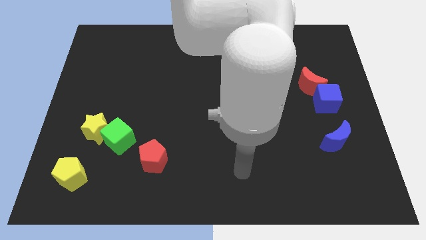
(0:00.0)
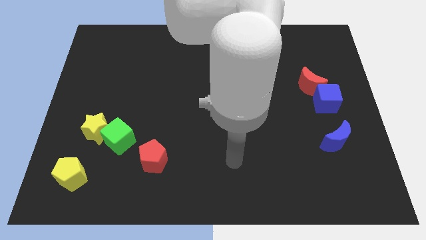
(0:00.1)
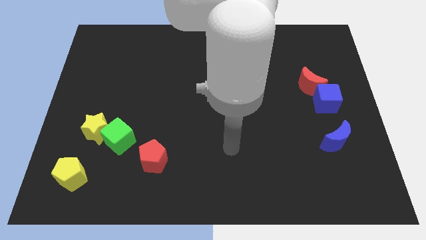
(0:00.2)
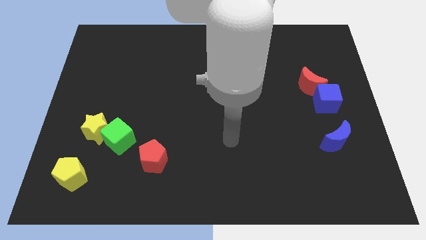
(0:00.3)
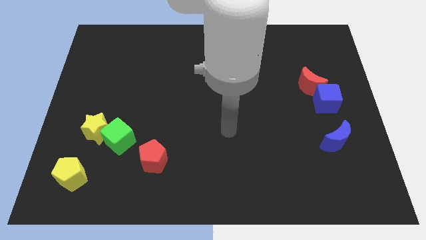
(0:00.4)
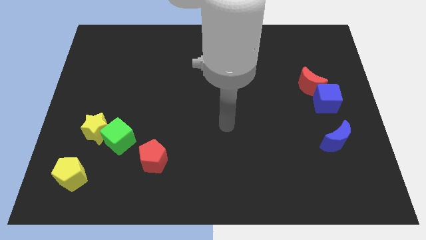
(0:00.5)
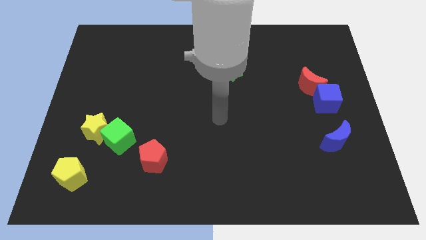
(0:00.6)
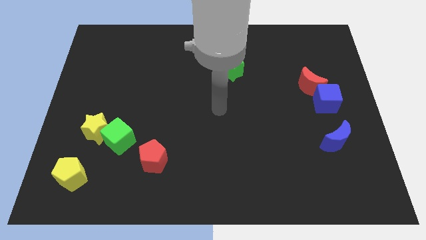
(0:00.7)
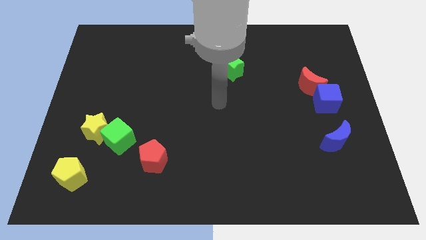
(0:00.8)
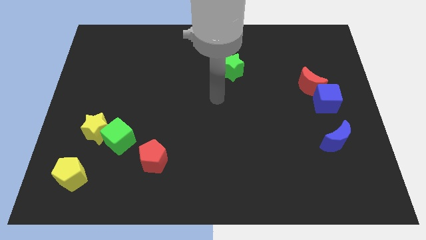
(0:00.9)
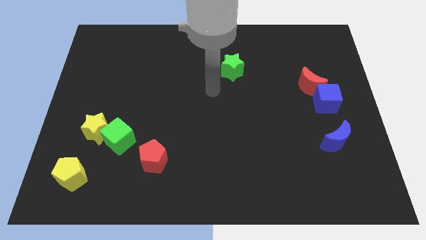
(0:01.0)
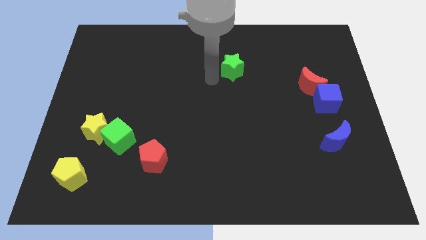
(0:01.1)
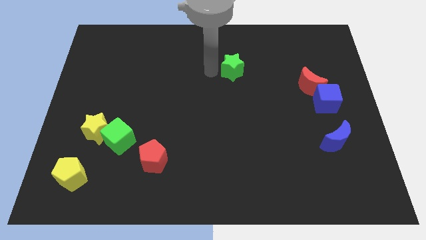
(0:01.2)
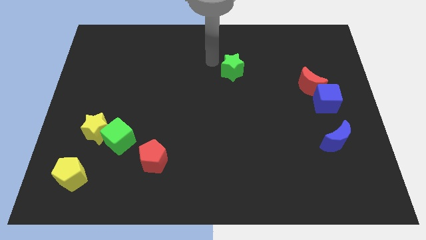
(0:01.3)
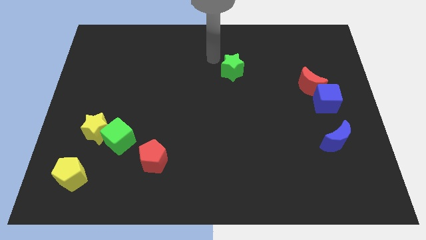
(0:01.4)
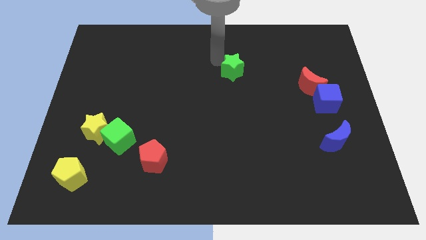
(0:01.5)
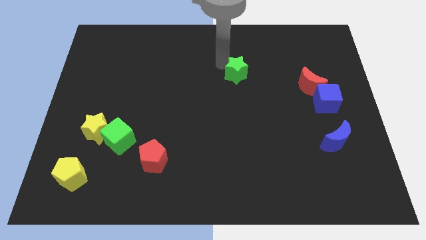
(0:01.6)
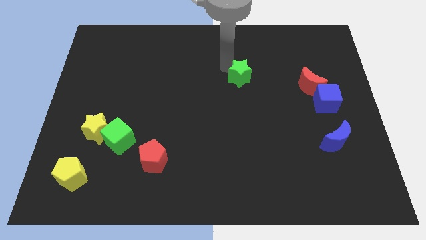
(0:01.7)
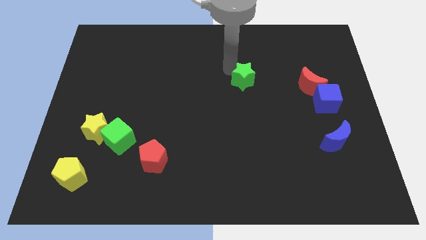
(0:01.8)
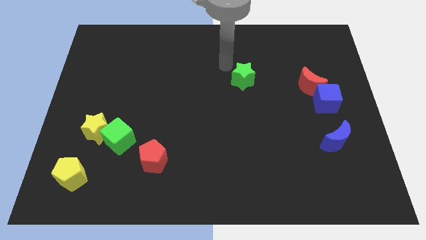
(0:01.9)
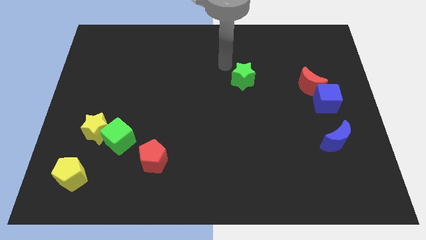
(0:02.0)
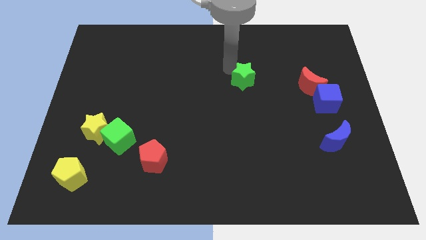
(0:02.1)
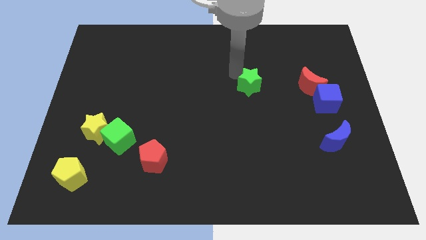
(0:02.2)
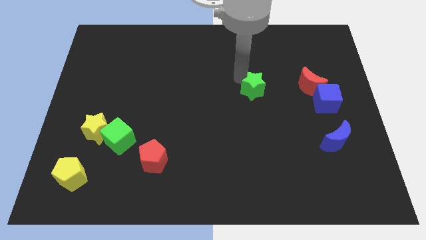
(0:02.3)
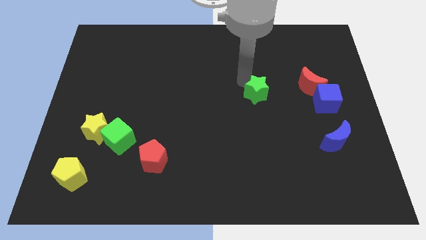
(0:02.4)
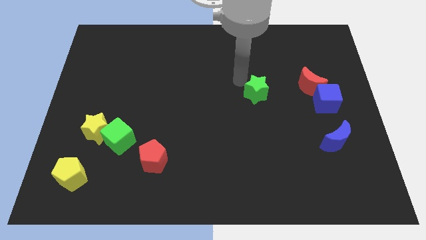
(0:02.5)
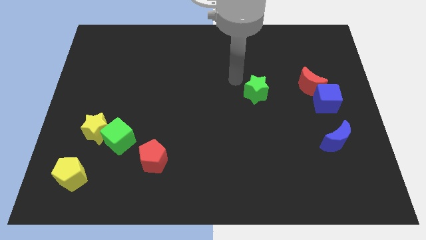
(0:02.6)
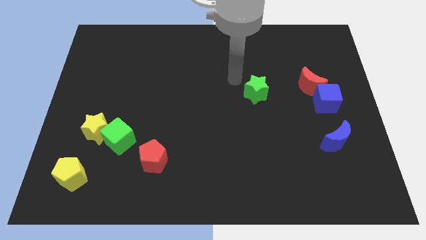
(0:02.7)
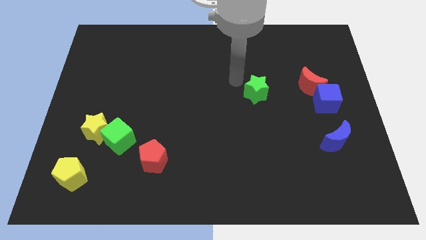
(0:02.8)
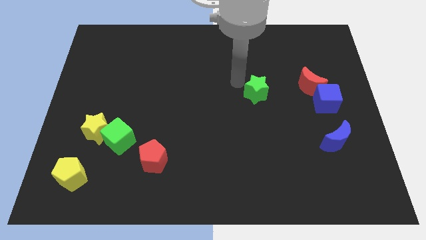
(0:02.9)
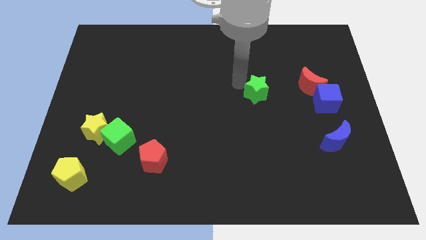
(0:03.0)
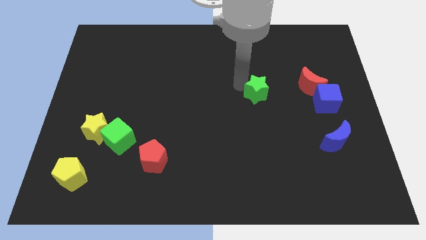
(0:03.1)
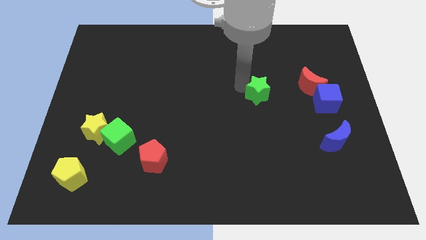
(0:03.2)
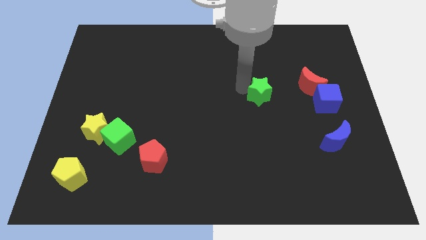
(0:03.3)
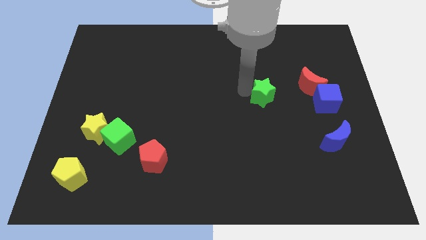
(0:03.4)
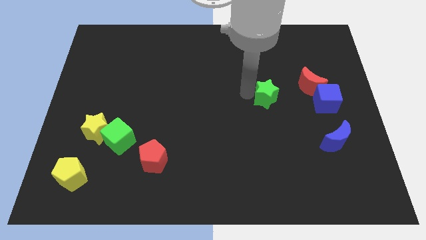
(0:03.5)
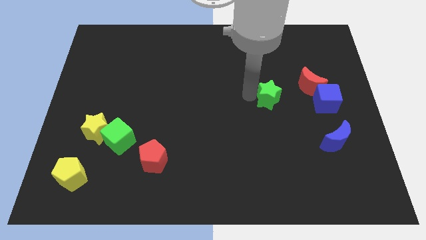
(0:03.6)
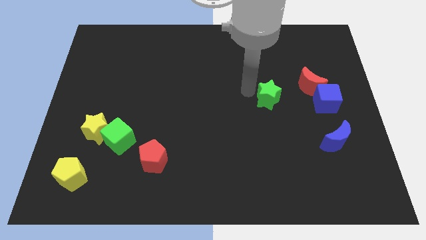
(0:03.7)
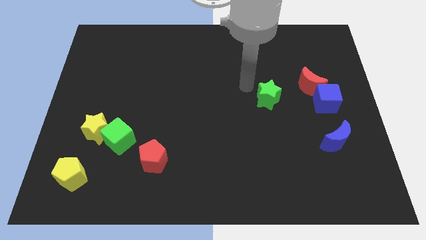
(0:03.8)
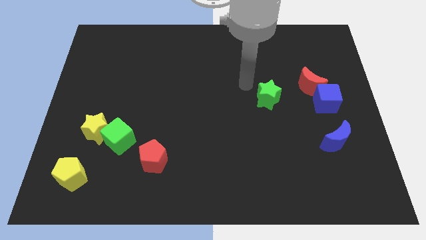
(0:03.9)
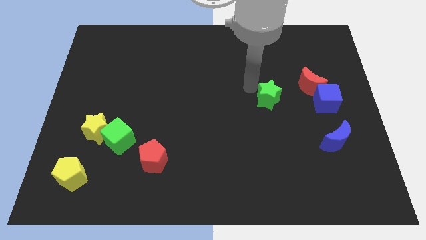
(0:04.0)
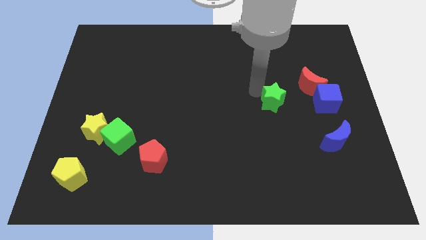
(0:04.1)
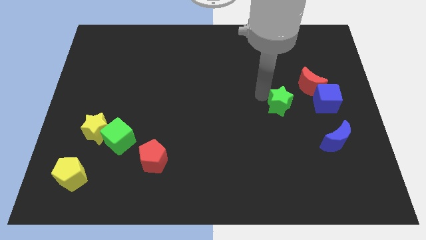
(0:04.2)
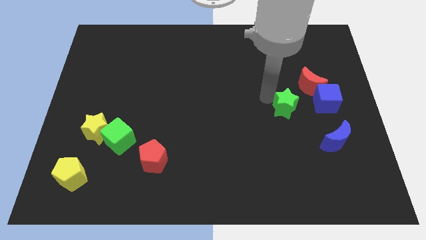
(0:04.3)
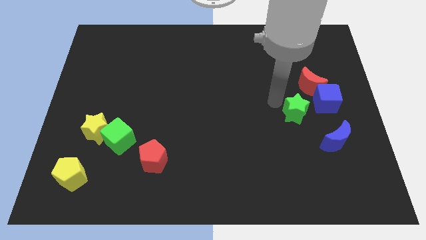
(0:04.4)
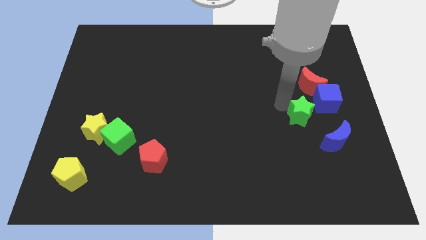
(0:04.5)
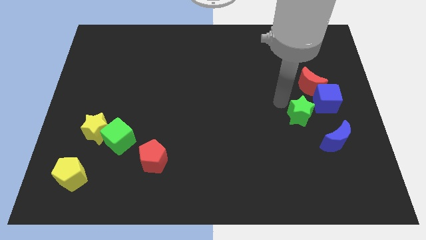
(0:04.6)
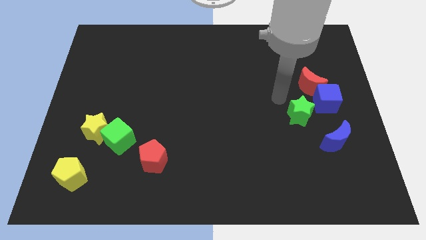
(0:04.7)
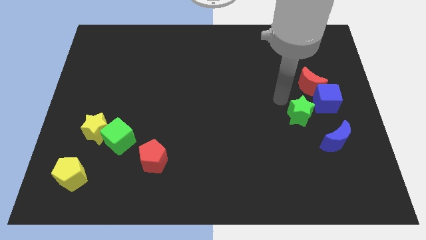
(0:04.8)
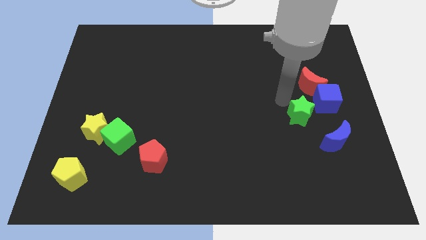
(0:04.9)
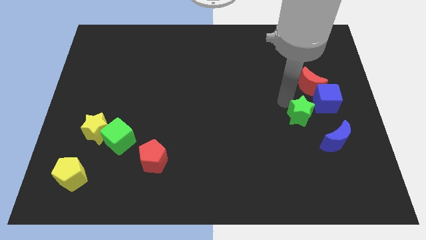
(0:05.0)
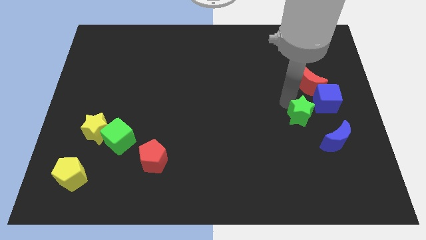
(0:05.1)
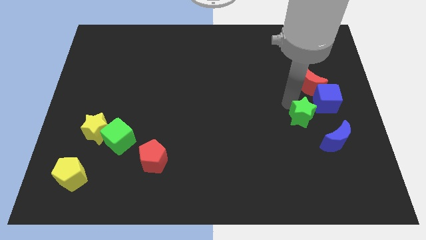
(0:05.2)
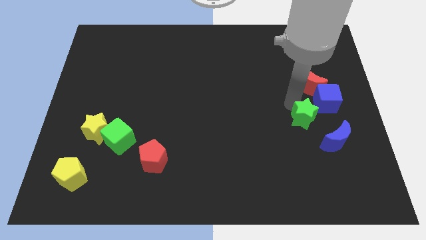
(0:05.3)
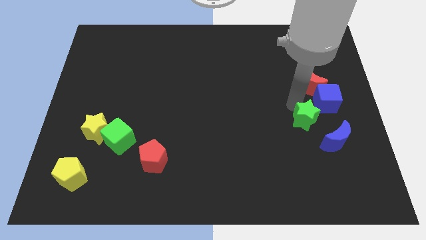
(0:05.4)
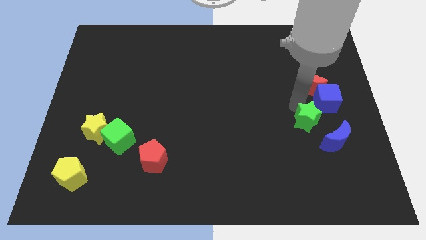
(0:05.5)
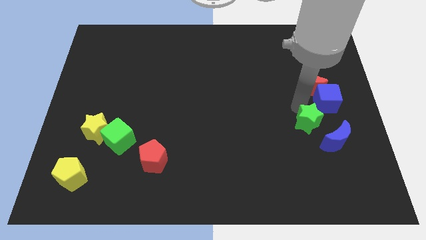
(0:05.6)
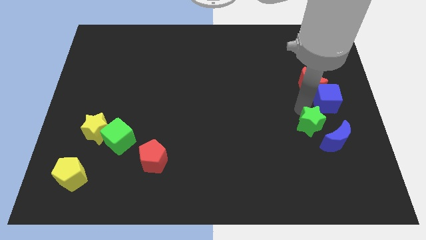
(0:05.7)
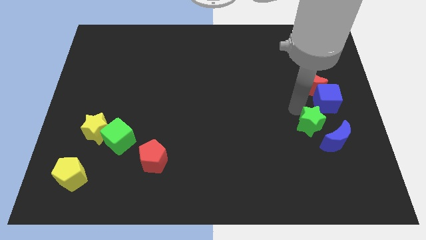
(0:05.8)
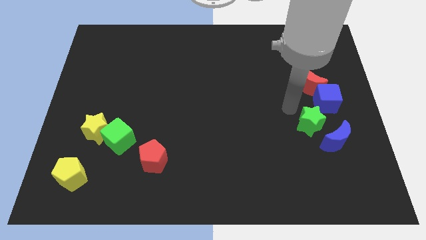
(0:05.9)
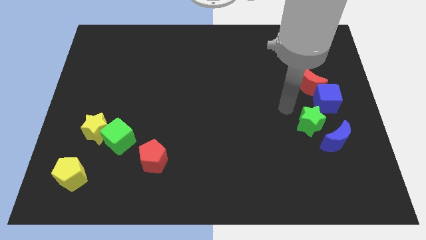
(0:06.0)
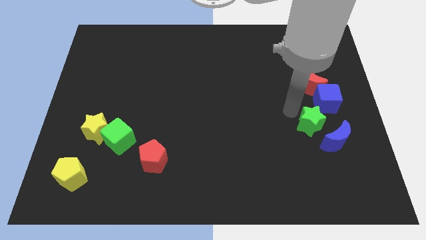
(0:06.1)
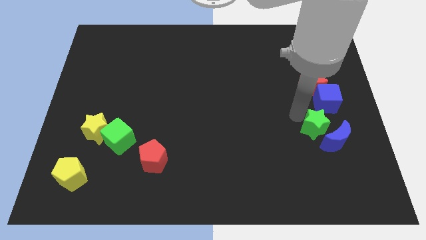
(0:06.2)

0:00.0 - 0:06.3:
move the green star to the blue moon
